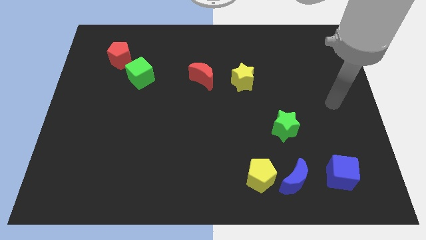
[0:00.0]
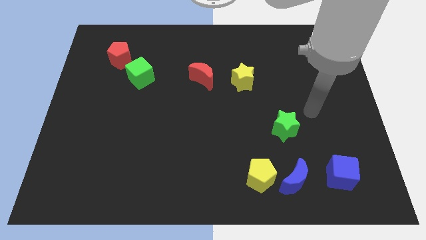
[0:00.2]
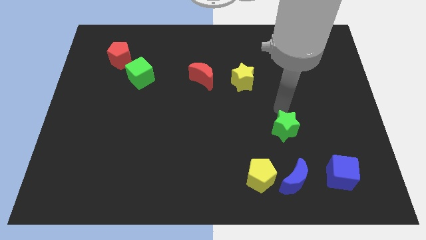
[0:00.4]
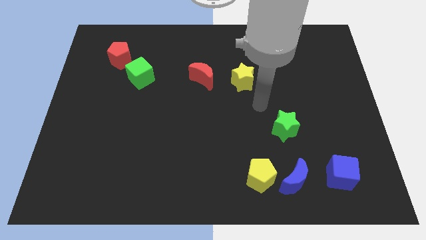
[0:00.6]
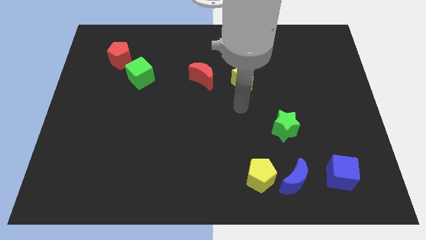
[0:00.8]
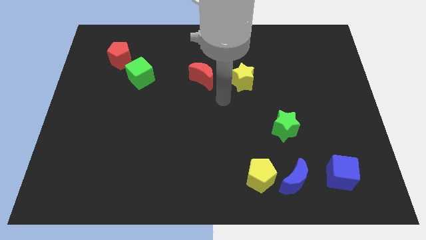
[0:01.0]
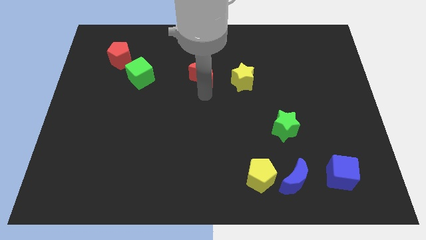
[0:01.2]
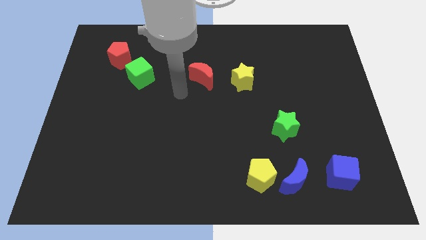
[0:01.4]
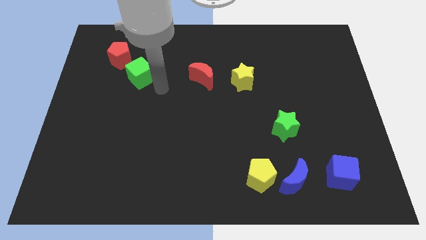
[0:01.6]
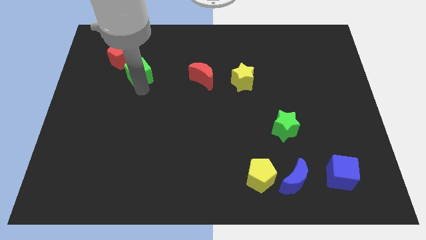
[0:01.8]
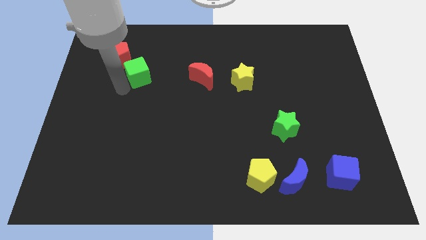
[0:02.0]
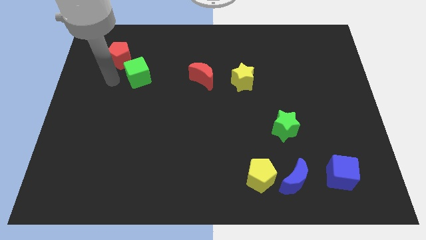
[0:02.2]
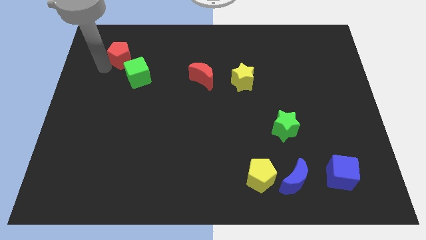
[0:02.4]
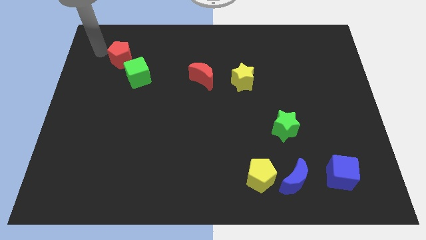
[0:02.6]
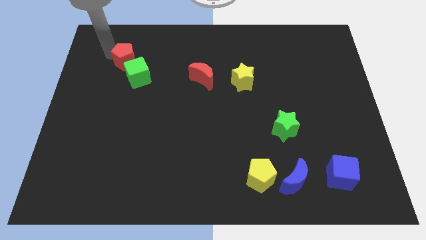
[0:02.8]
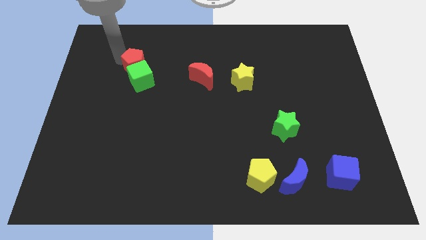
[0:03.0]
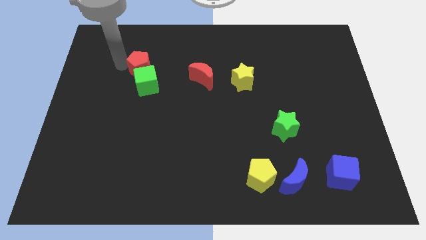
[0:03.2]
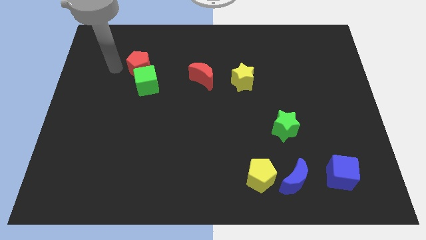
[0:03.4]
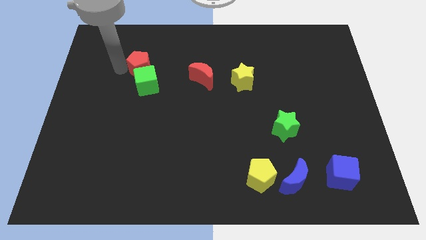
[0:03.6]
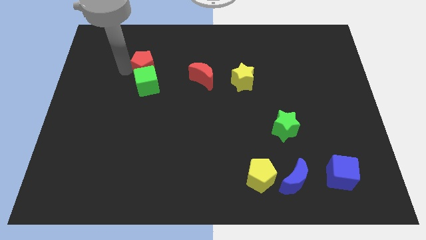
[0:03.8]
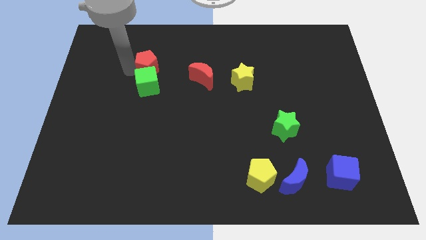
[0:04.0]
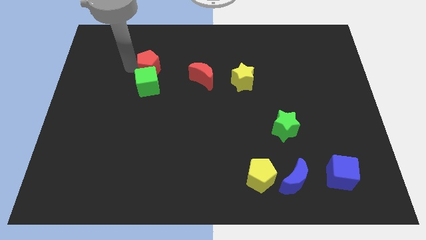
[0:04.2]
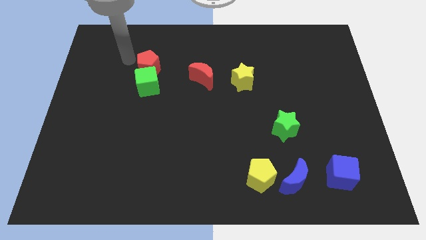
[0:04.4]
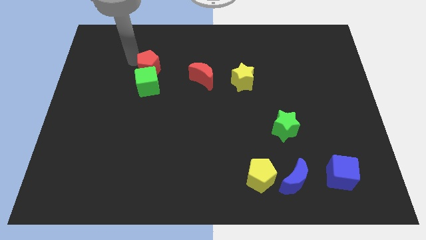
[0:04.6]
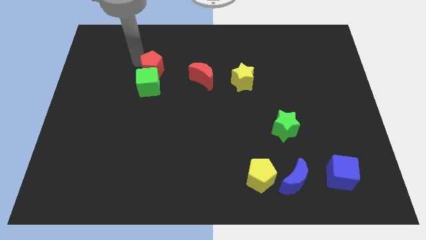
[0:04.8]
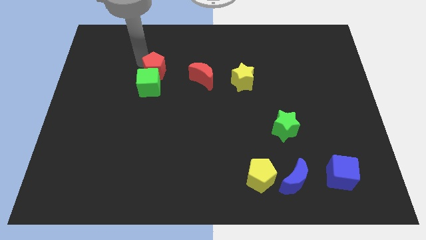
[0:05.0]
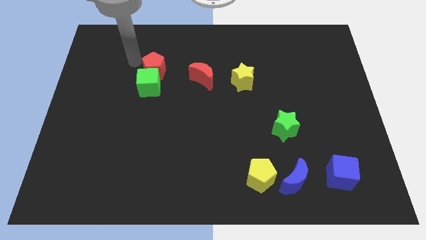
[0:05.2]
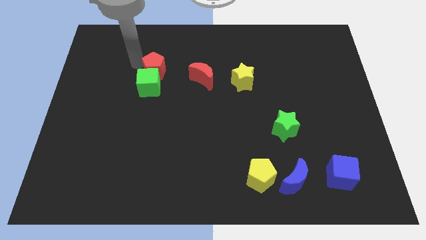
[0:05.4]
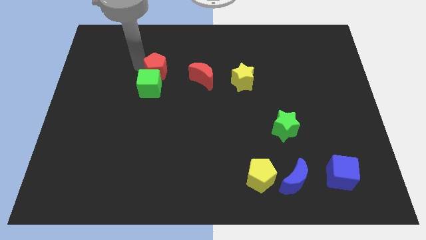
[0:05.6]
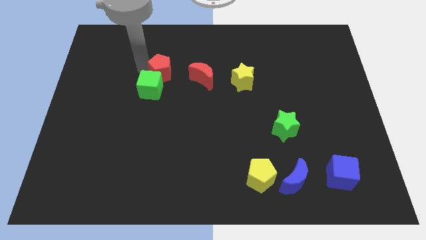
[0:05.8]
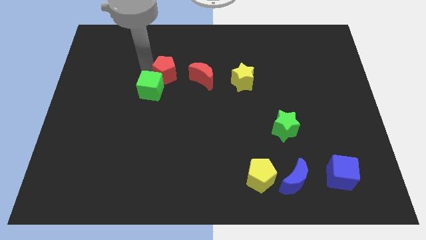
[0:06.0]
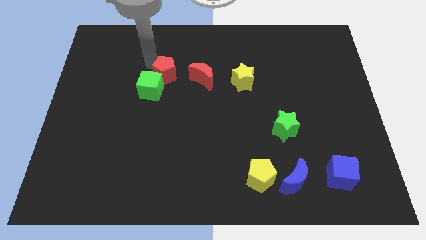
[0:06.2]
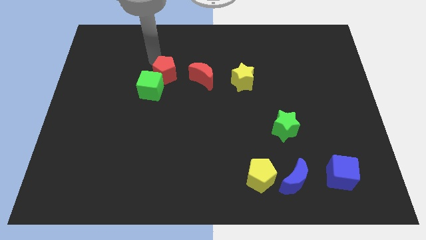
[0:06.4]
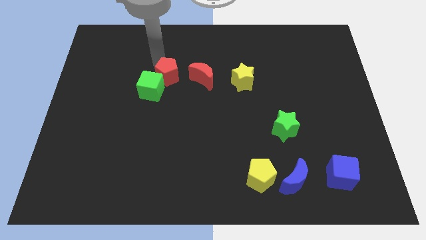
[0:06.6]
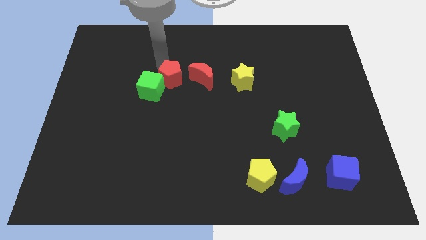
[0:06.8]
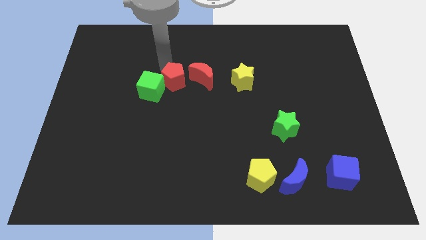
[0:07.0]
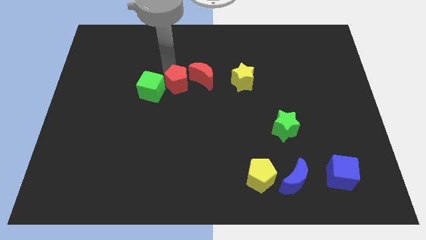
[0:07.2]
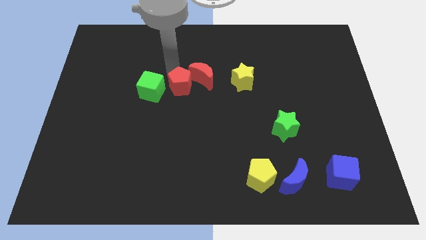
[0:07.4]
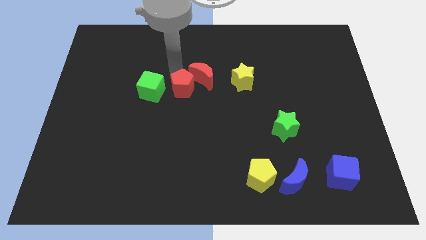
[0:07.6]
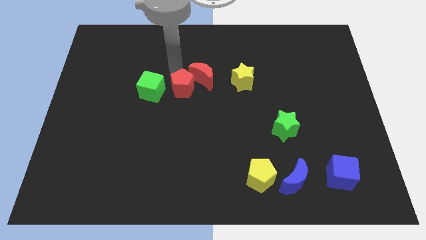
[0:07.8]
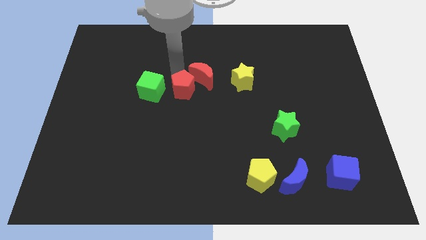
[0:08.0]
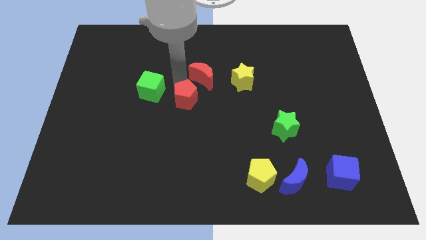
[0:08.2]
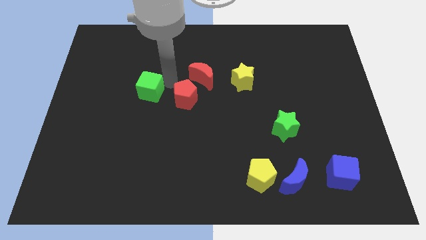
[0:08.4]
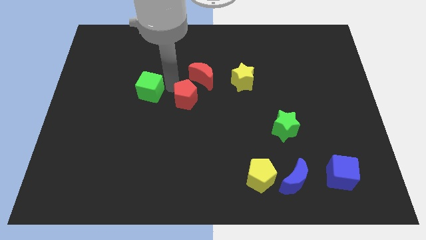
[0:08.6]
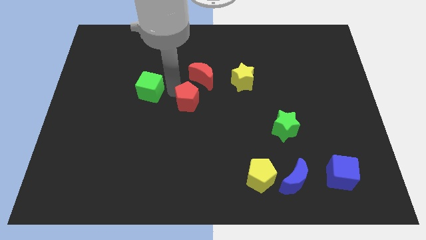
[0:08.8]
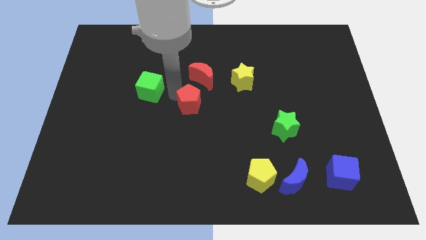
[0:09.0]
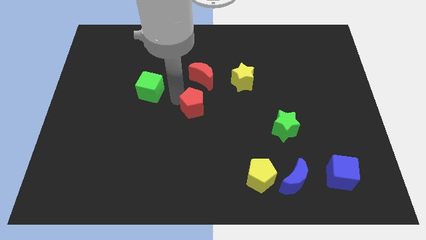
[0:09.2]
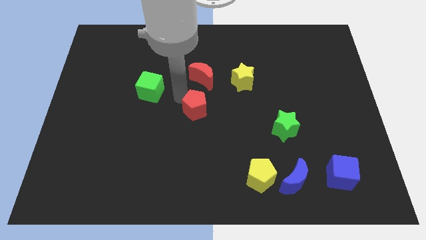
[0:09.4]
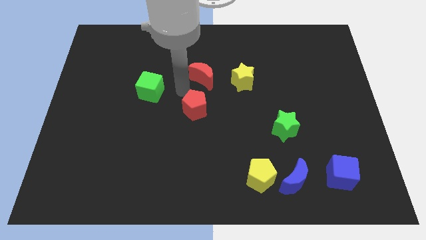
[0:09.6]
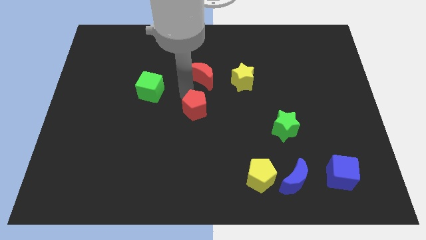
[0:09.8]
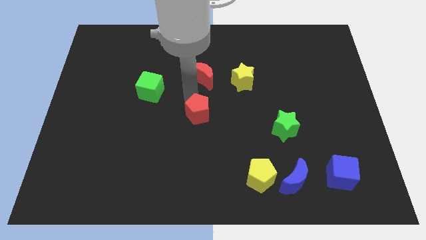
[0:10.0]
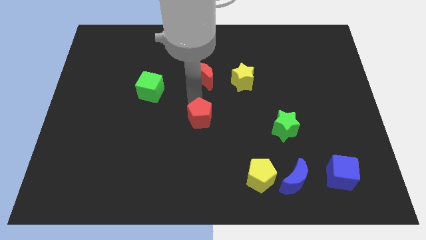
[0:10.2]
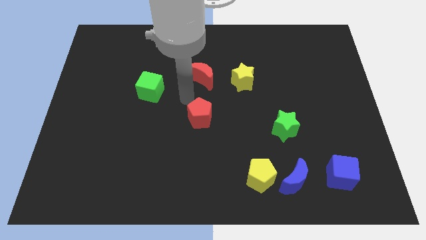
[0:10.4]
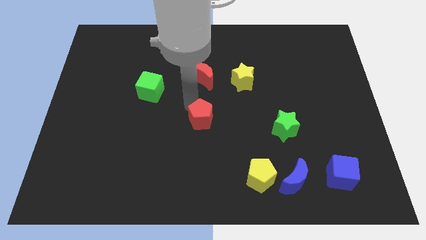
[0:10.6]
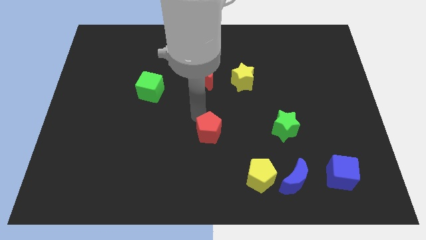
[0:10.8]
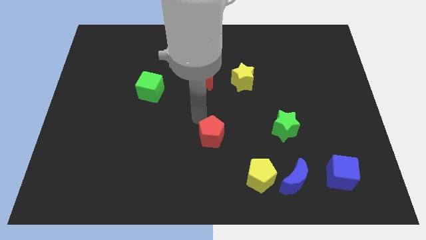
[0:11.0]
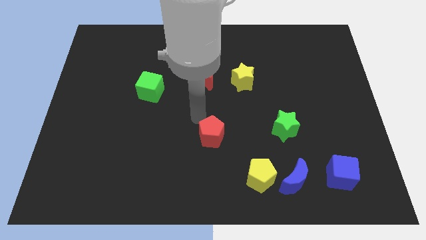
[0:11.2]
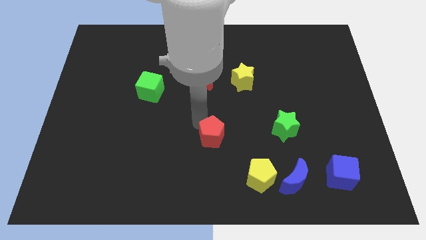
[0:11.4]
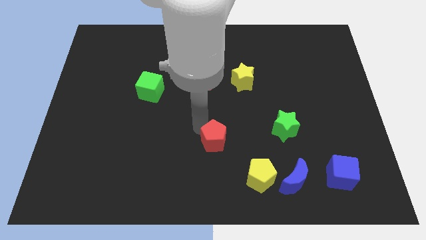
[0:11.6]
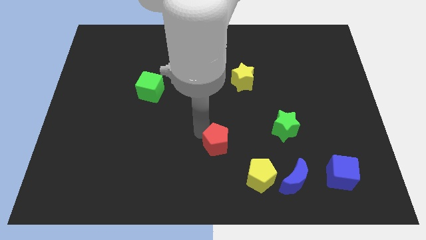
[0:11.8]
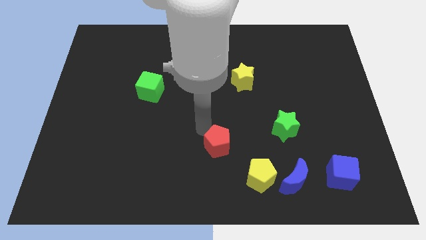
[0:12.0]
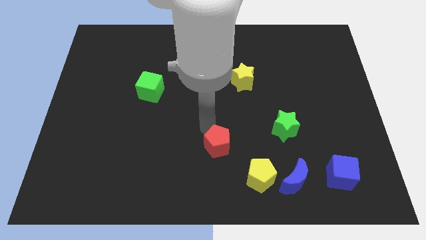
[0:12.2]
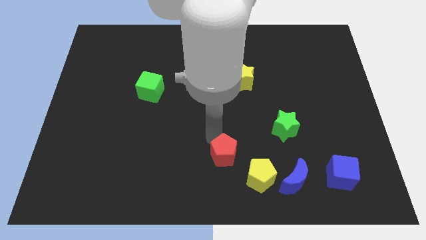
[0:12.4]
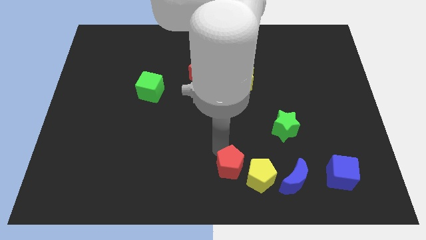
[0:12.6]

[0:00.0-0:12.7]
put the red pentagon to the left of the blue moon

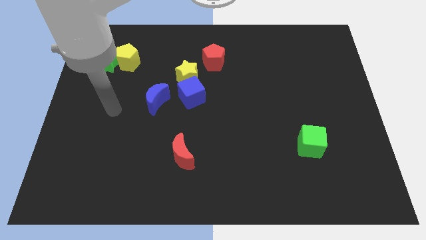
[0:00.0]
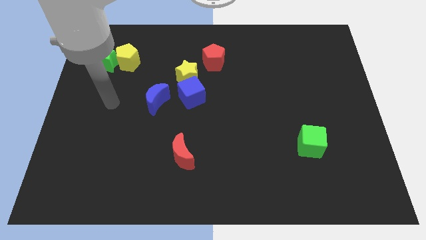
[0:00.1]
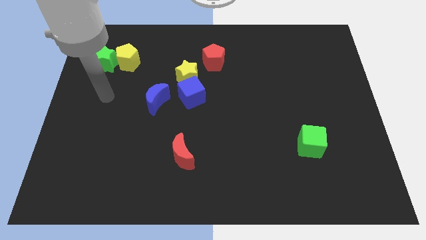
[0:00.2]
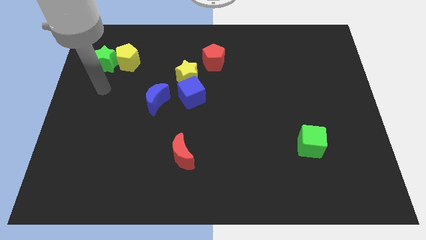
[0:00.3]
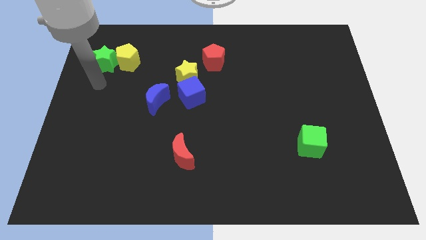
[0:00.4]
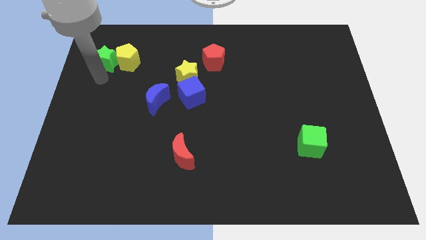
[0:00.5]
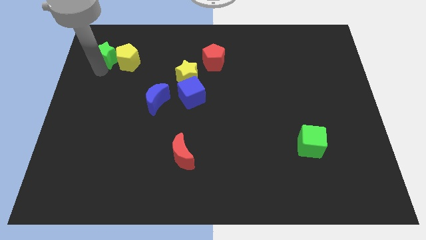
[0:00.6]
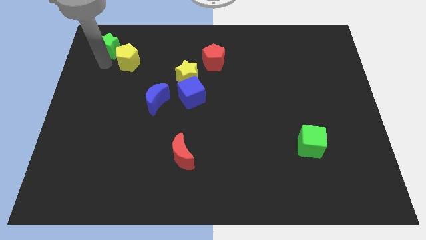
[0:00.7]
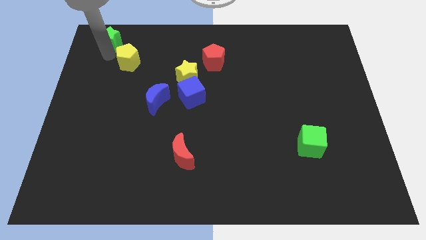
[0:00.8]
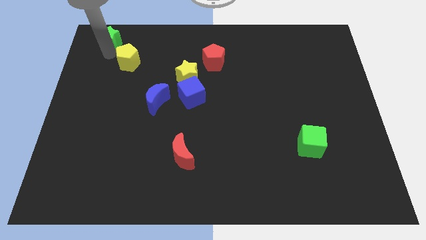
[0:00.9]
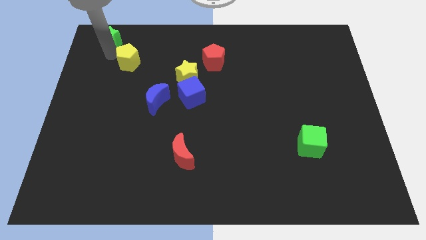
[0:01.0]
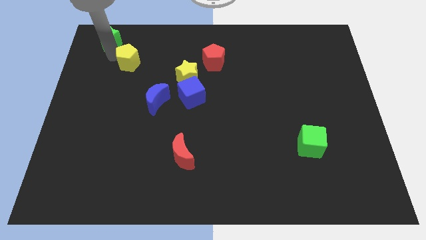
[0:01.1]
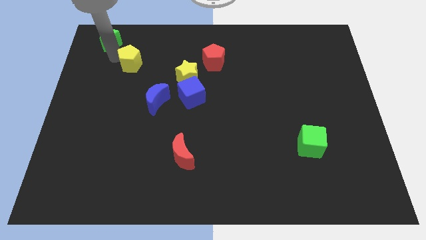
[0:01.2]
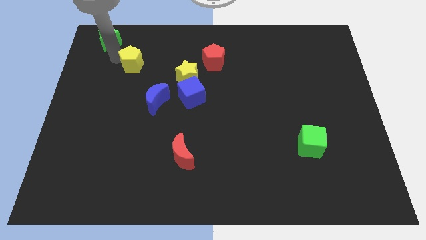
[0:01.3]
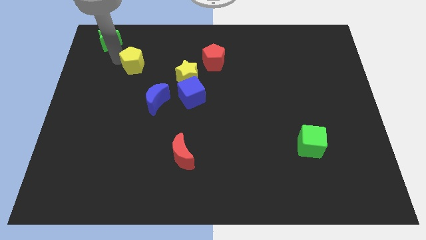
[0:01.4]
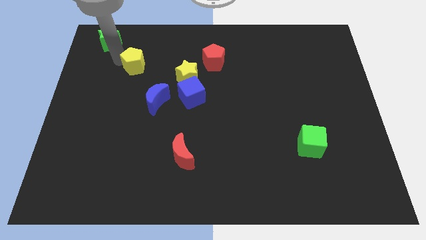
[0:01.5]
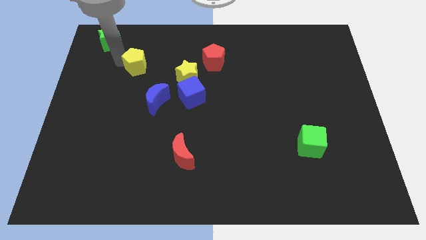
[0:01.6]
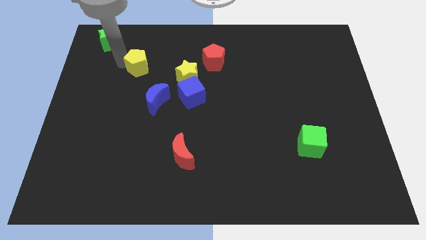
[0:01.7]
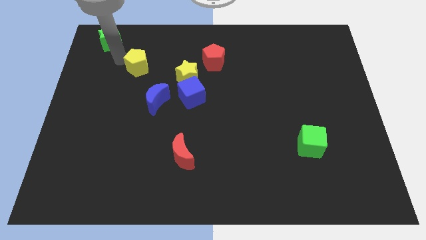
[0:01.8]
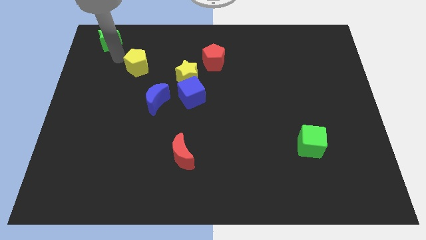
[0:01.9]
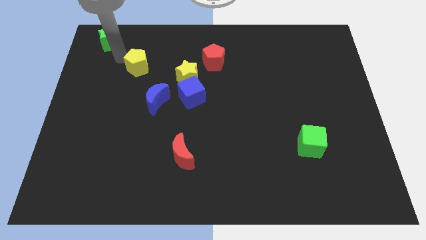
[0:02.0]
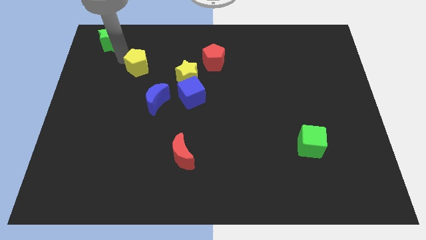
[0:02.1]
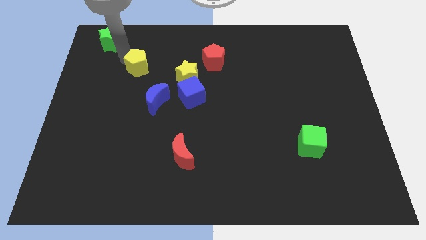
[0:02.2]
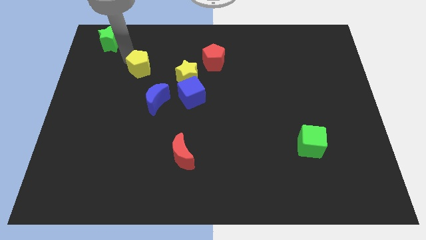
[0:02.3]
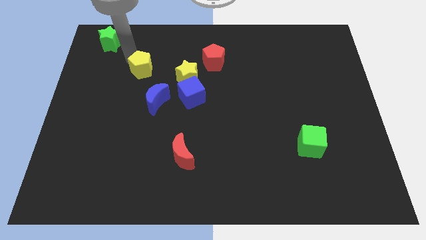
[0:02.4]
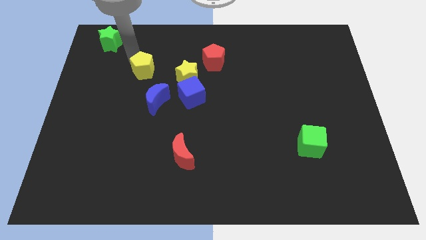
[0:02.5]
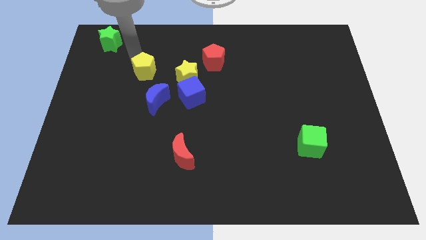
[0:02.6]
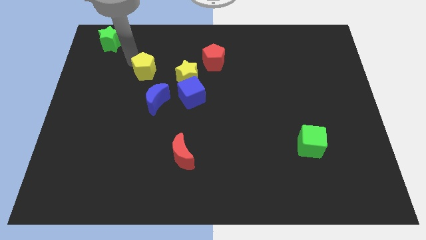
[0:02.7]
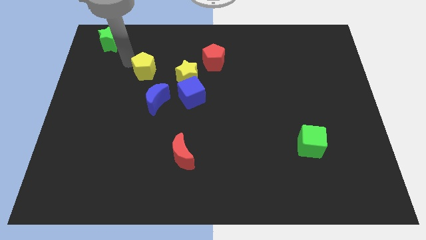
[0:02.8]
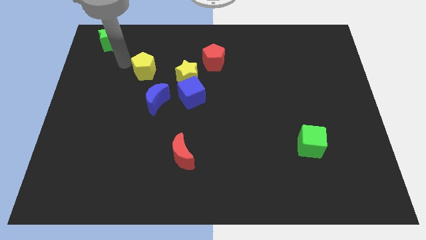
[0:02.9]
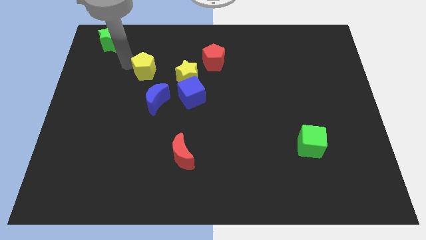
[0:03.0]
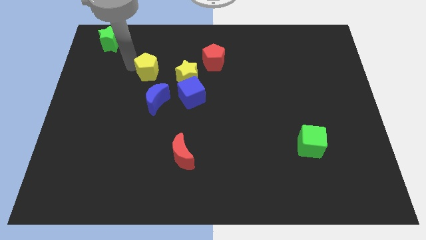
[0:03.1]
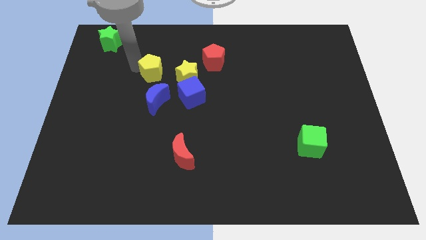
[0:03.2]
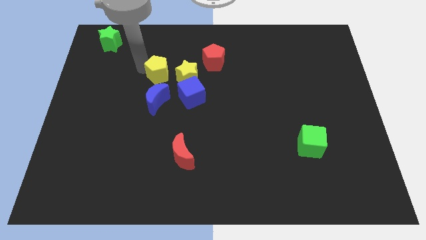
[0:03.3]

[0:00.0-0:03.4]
move the yellow pentagon to the top left of the blue cube
